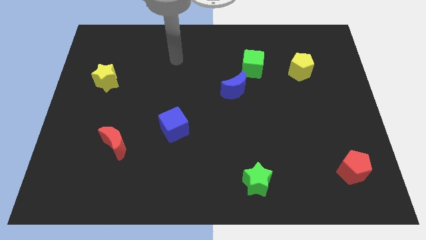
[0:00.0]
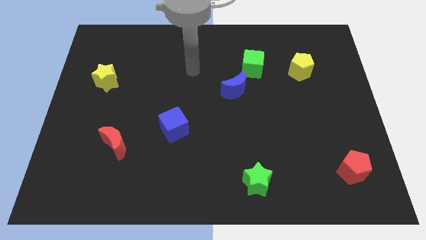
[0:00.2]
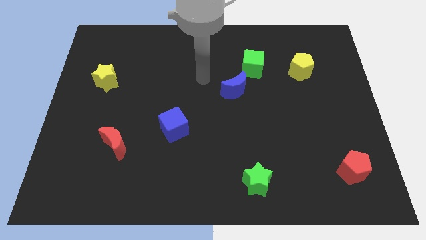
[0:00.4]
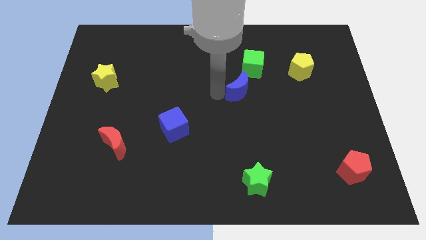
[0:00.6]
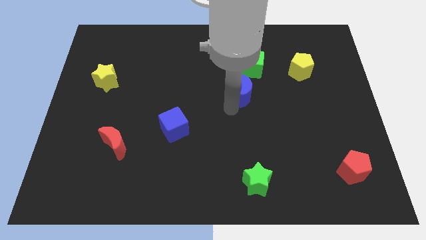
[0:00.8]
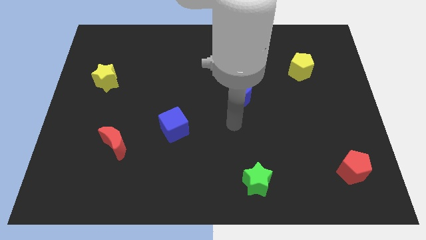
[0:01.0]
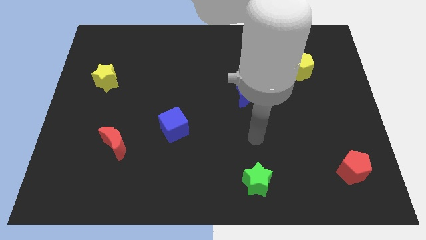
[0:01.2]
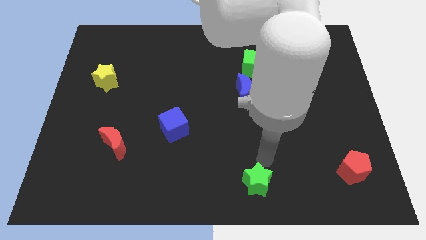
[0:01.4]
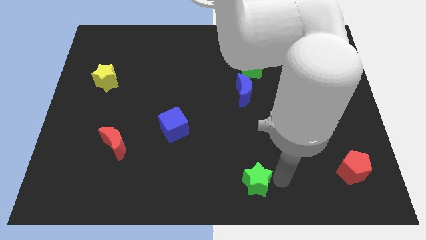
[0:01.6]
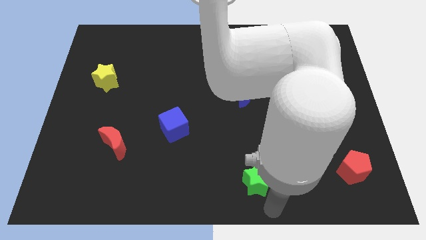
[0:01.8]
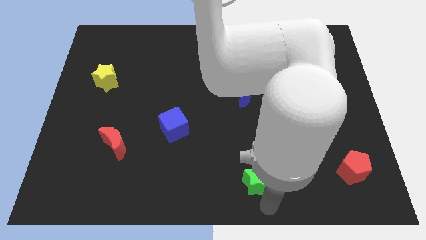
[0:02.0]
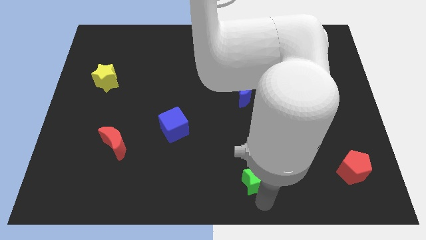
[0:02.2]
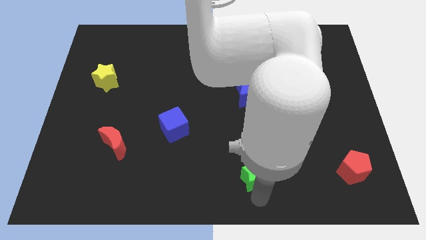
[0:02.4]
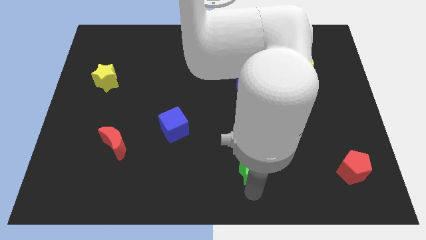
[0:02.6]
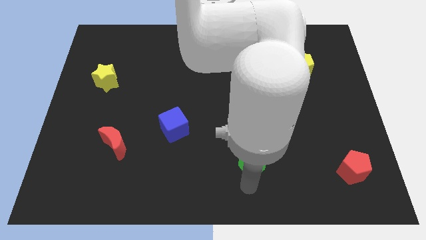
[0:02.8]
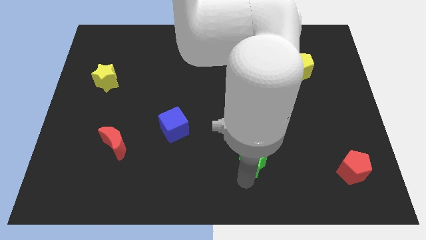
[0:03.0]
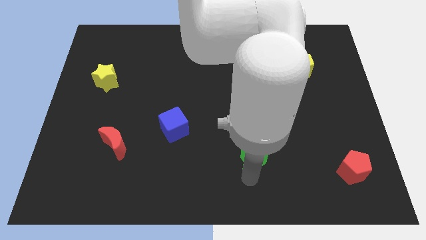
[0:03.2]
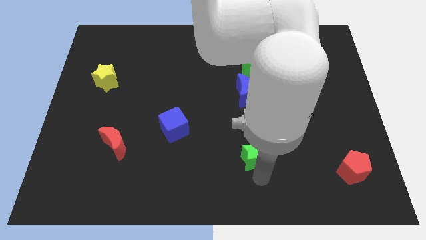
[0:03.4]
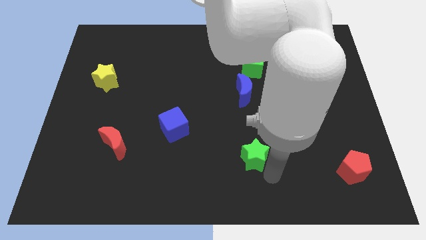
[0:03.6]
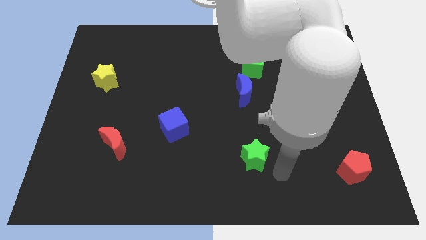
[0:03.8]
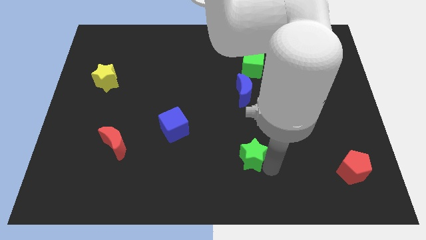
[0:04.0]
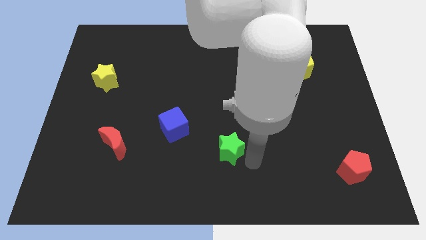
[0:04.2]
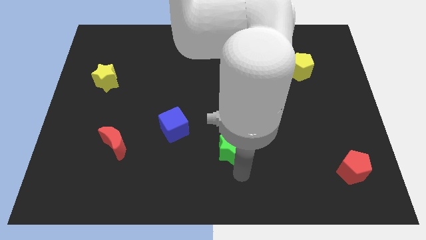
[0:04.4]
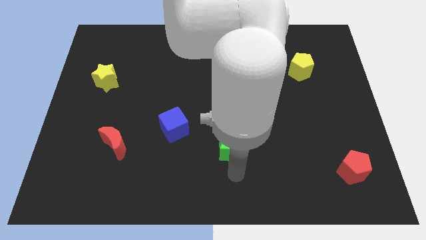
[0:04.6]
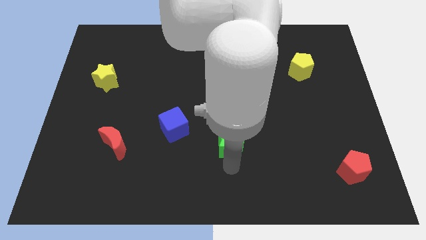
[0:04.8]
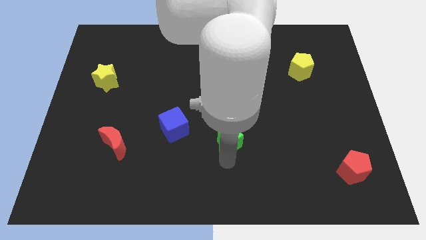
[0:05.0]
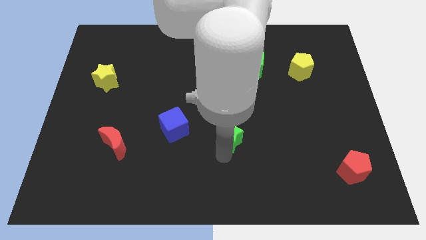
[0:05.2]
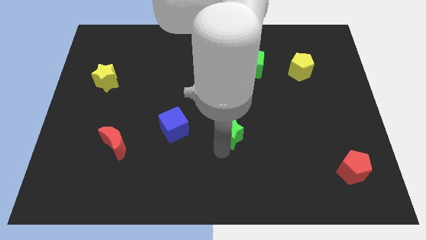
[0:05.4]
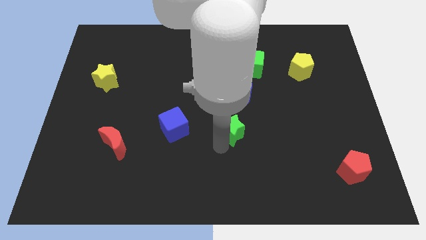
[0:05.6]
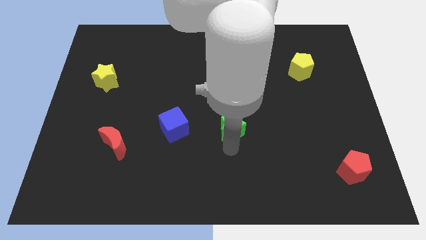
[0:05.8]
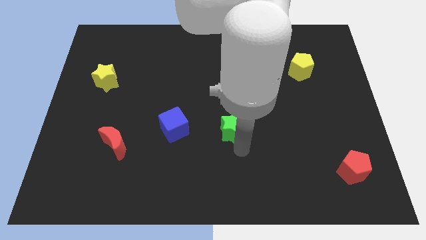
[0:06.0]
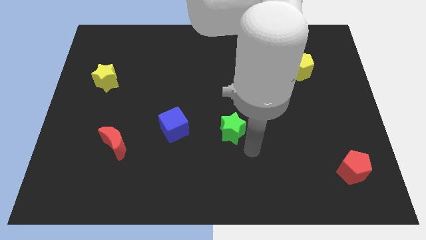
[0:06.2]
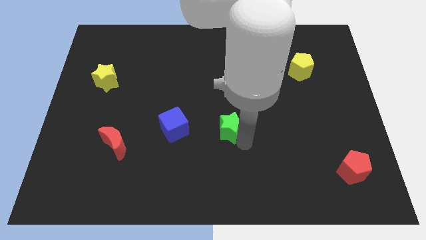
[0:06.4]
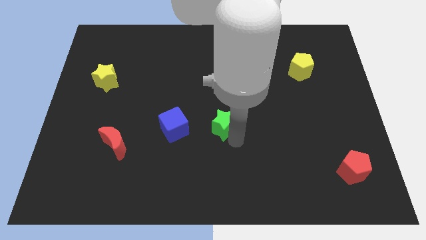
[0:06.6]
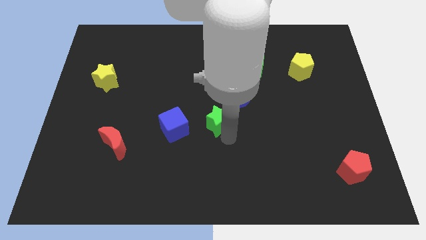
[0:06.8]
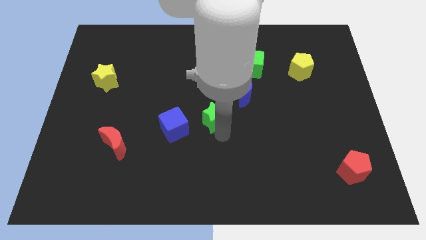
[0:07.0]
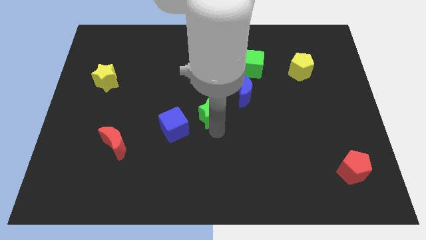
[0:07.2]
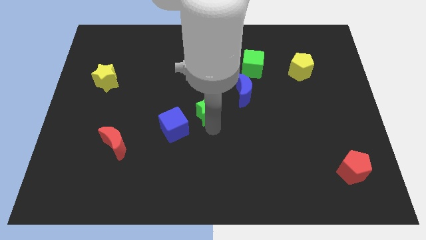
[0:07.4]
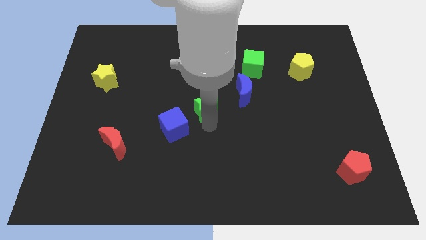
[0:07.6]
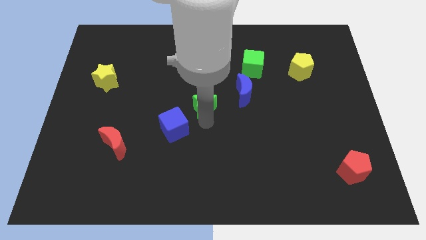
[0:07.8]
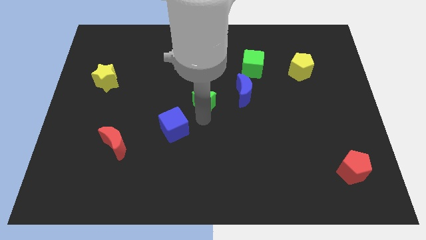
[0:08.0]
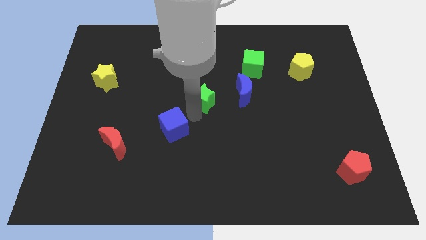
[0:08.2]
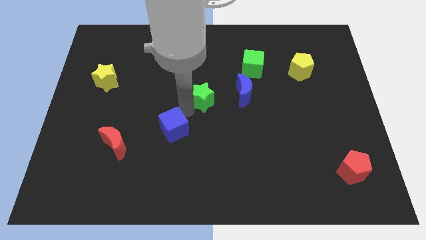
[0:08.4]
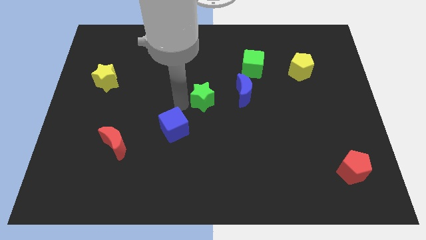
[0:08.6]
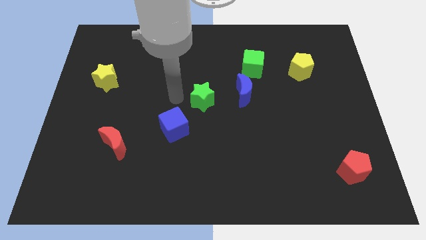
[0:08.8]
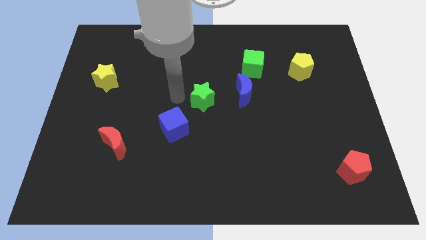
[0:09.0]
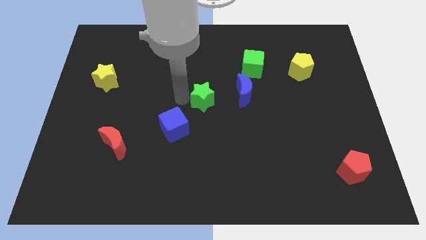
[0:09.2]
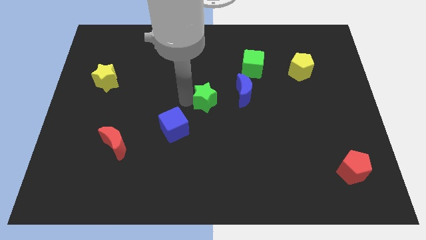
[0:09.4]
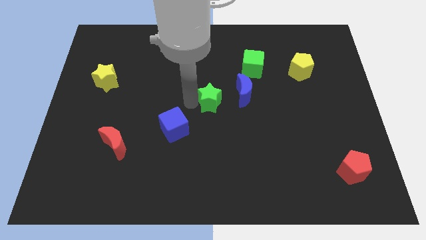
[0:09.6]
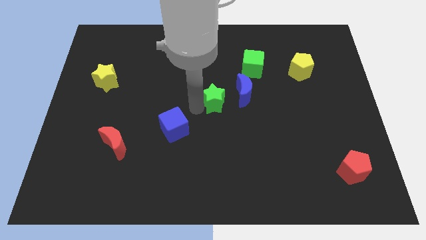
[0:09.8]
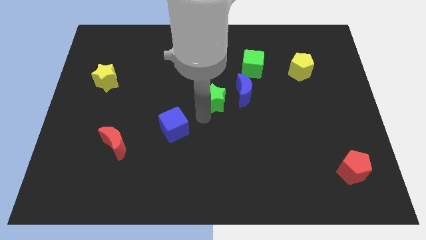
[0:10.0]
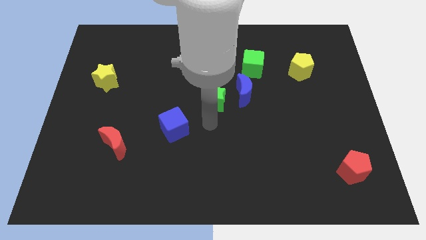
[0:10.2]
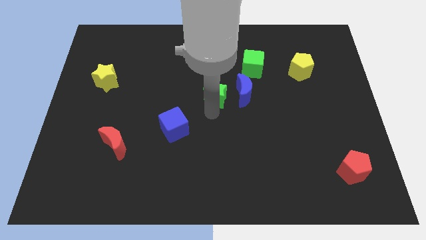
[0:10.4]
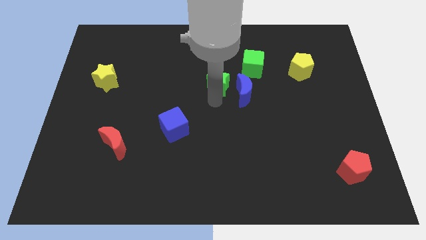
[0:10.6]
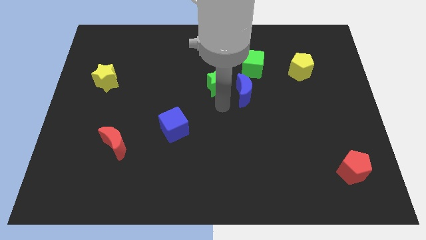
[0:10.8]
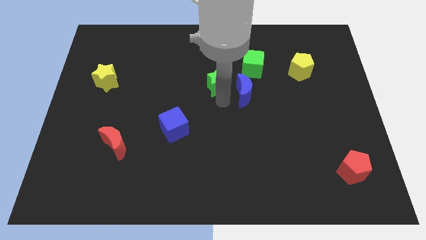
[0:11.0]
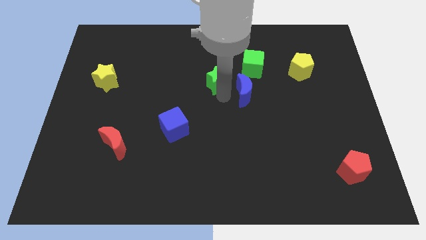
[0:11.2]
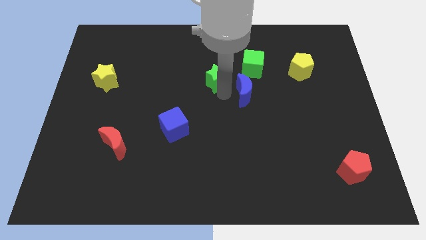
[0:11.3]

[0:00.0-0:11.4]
put the green star to the left side of the green cube
